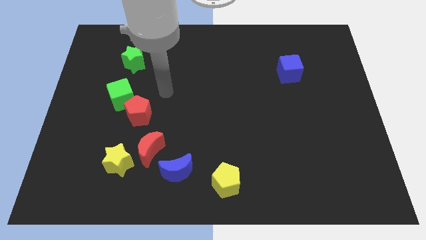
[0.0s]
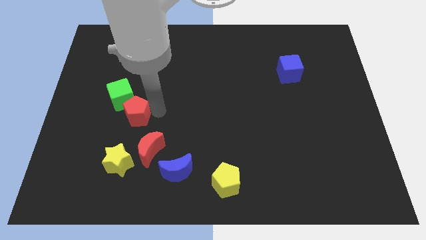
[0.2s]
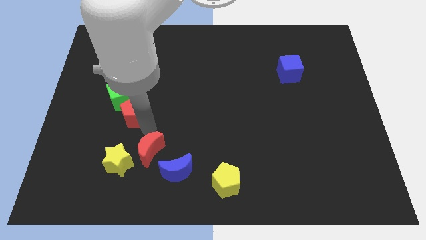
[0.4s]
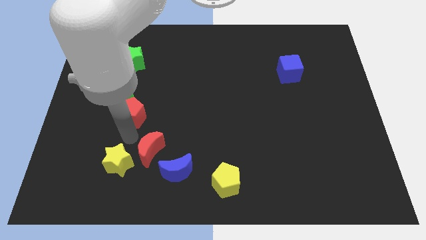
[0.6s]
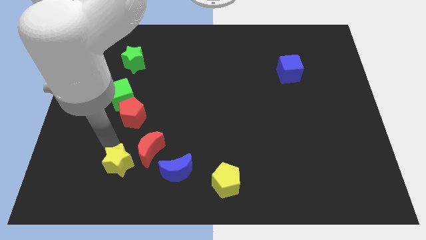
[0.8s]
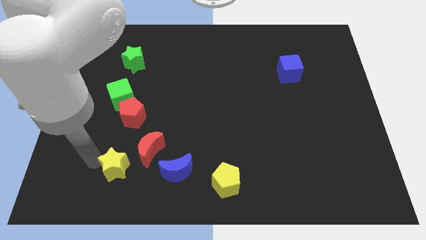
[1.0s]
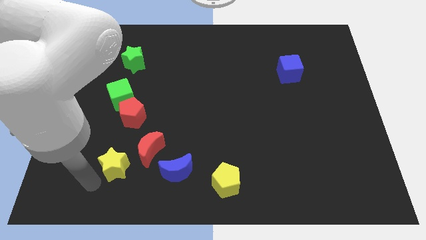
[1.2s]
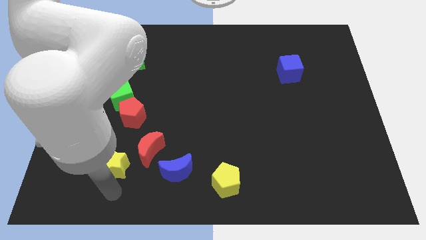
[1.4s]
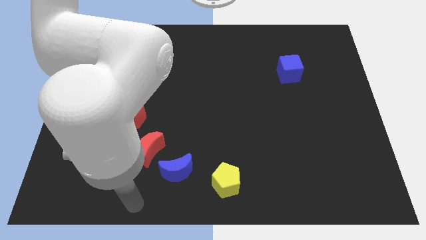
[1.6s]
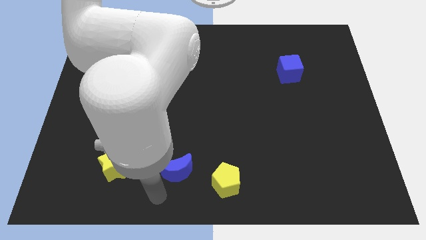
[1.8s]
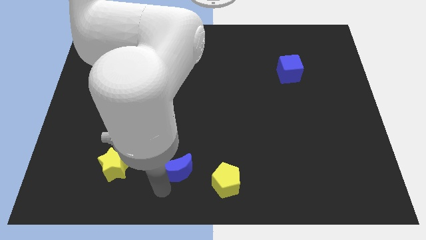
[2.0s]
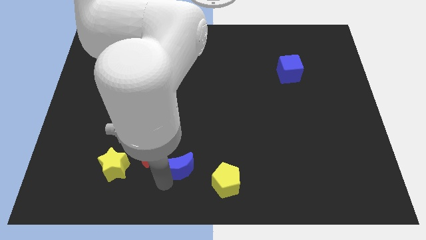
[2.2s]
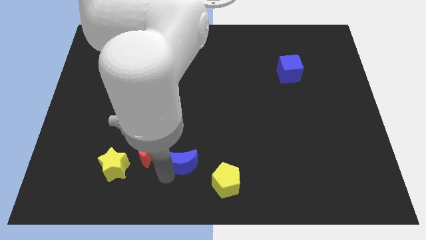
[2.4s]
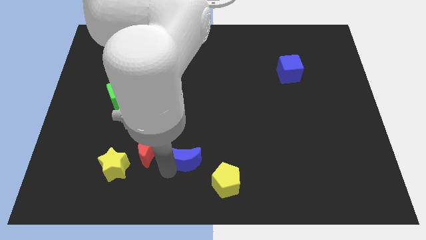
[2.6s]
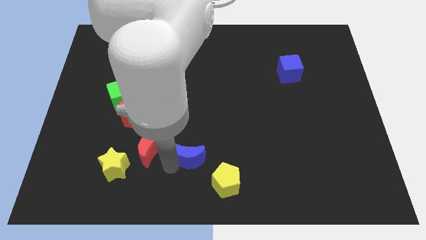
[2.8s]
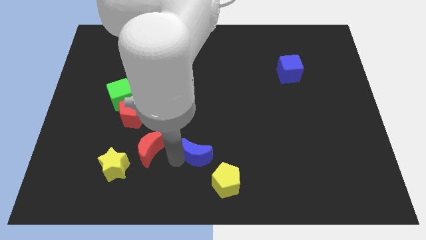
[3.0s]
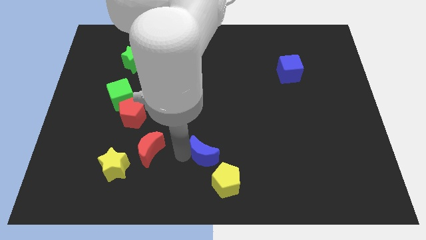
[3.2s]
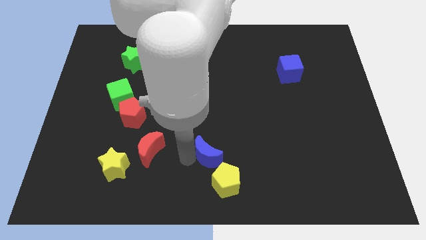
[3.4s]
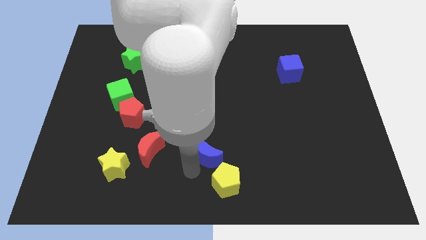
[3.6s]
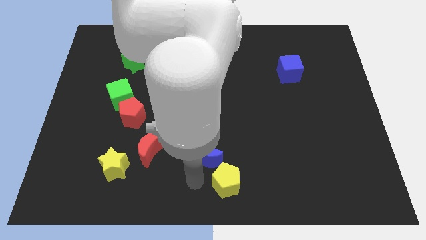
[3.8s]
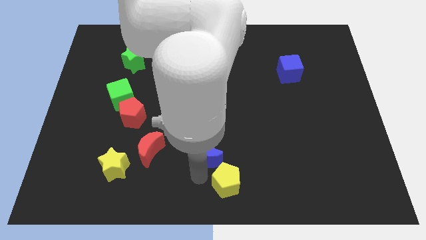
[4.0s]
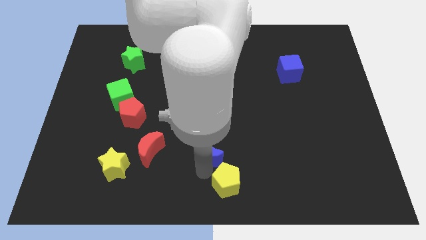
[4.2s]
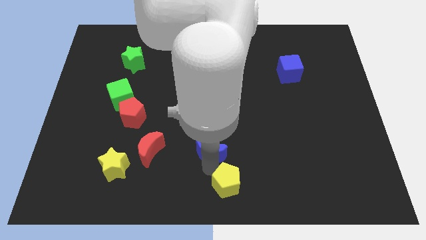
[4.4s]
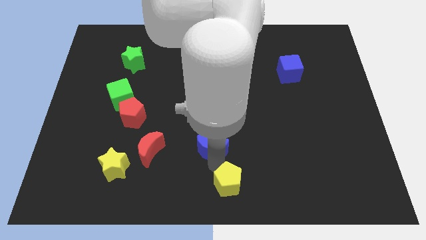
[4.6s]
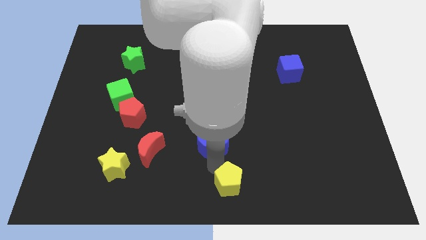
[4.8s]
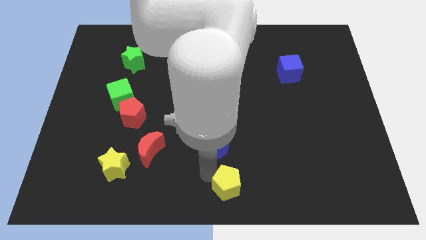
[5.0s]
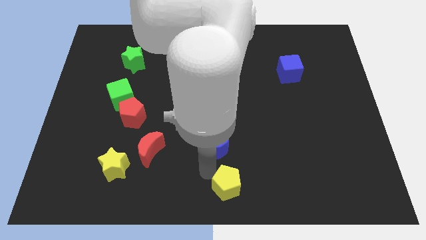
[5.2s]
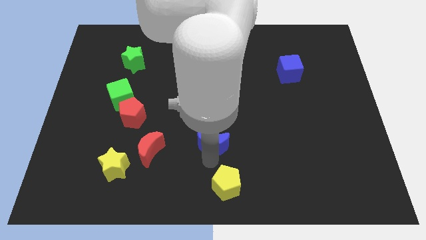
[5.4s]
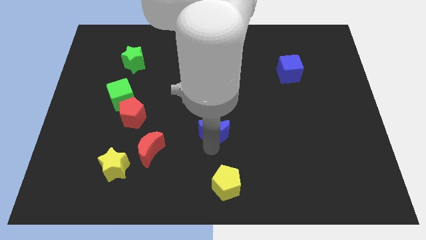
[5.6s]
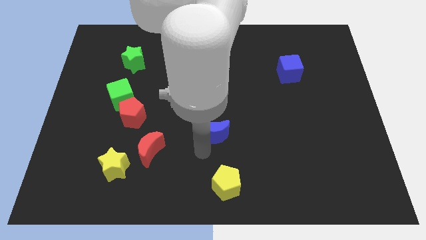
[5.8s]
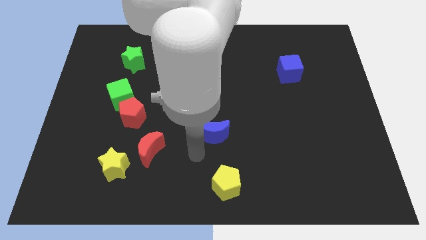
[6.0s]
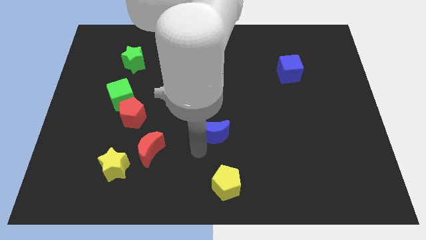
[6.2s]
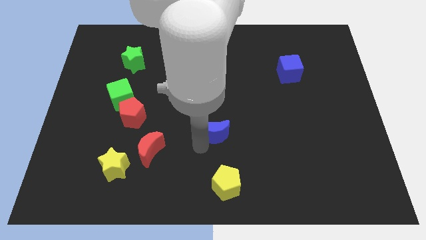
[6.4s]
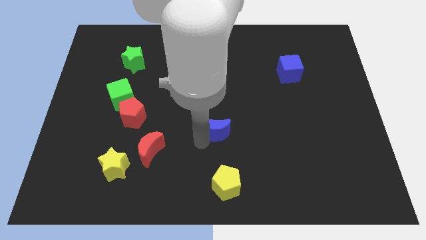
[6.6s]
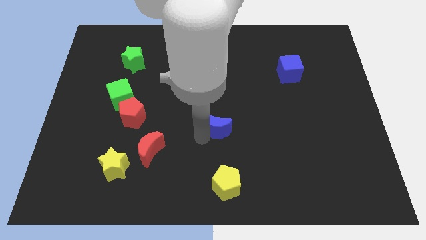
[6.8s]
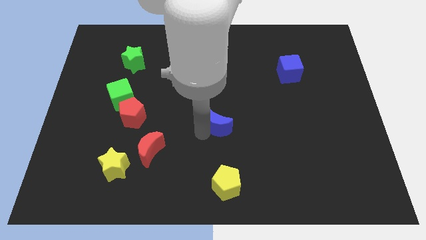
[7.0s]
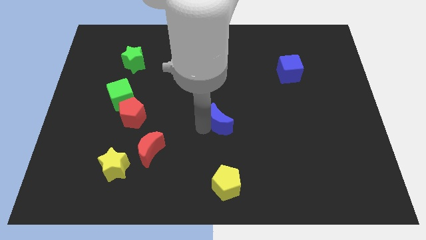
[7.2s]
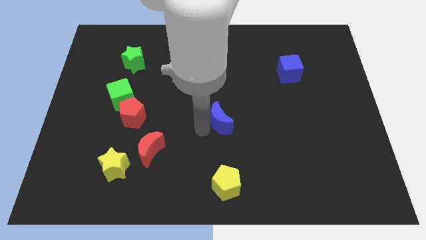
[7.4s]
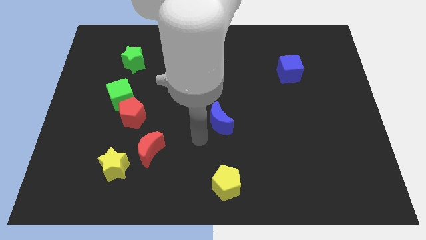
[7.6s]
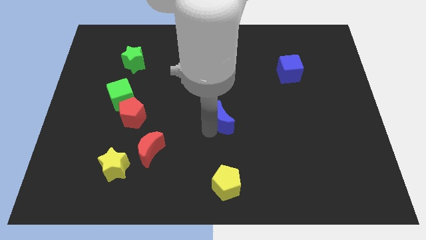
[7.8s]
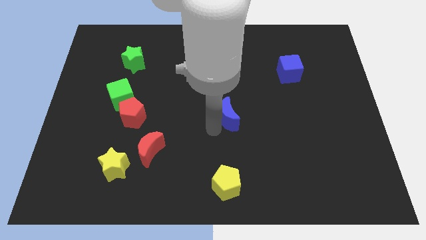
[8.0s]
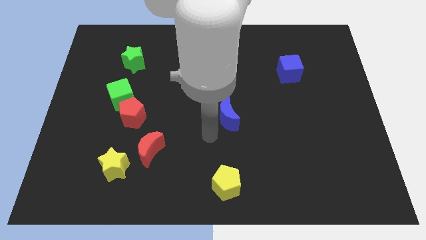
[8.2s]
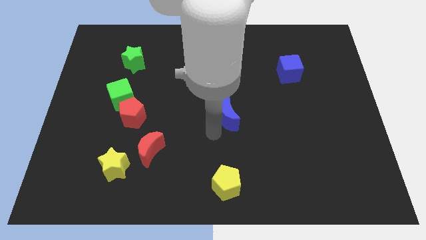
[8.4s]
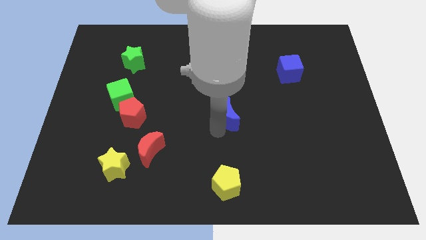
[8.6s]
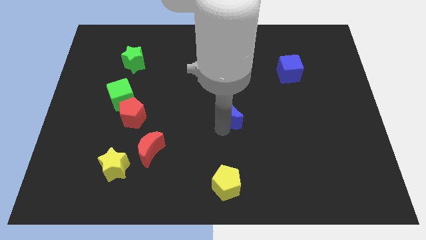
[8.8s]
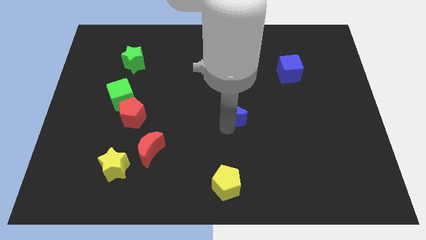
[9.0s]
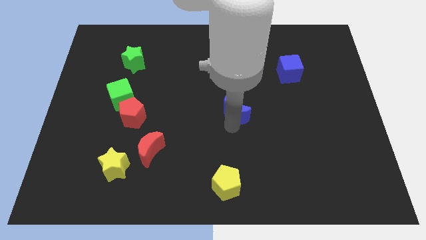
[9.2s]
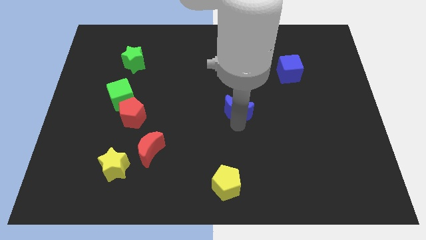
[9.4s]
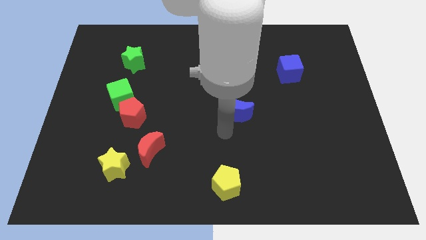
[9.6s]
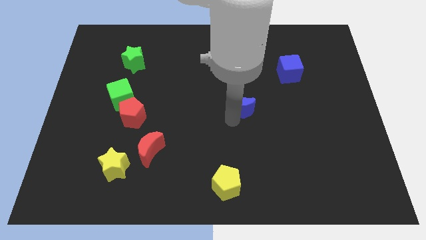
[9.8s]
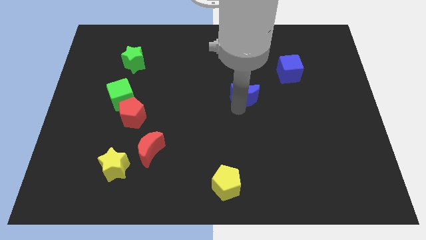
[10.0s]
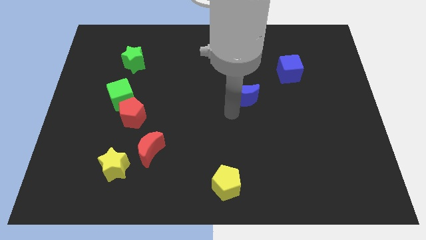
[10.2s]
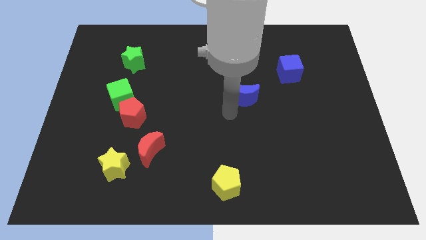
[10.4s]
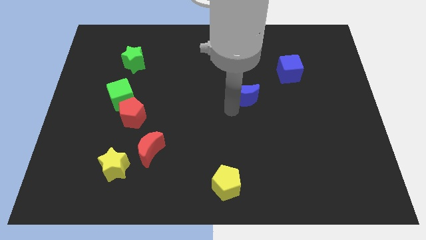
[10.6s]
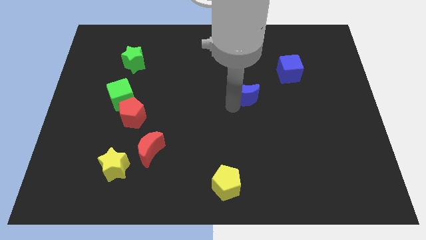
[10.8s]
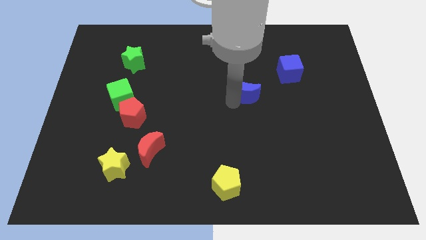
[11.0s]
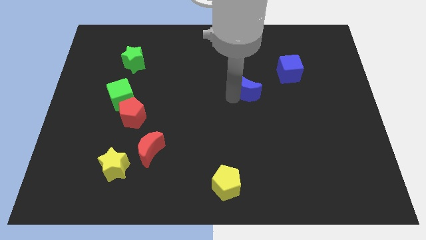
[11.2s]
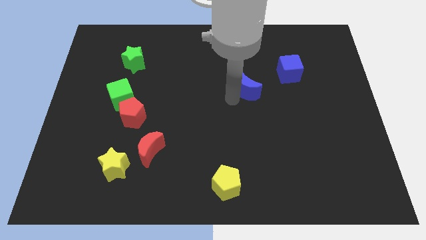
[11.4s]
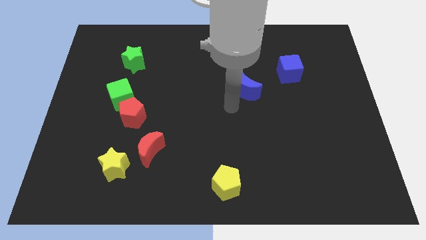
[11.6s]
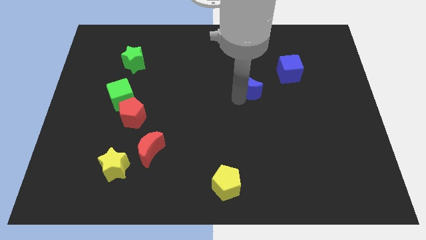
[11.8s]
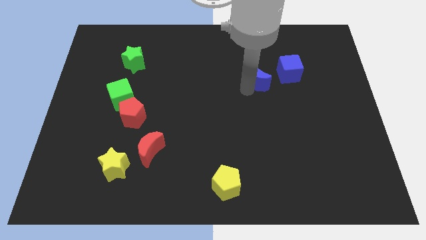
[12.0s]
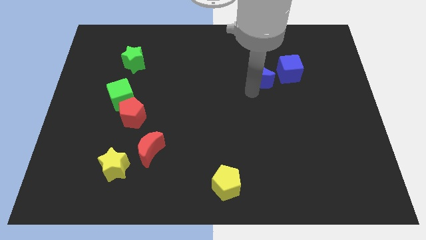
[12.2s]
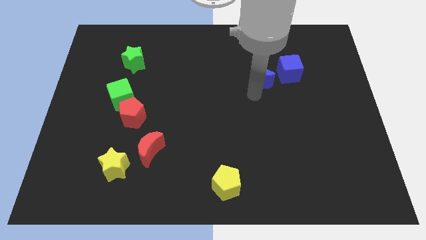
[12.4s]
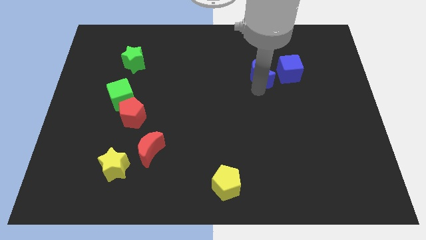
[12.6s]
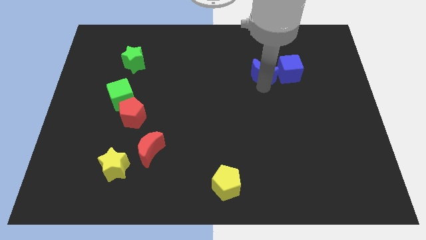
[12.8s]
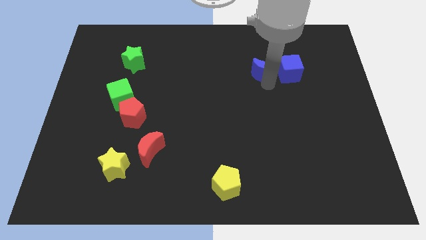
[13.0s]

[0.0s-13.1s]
push the blue moon to the top left side of the blue cube

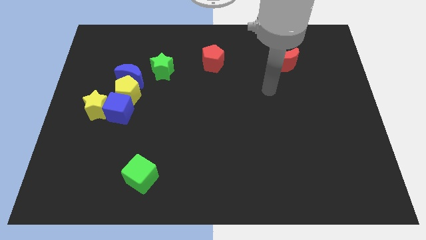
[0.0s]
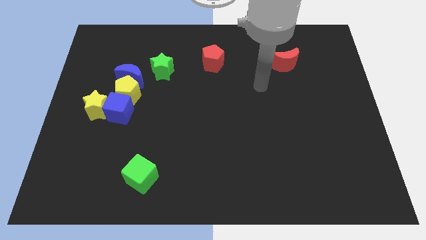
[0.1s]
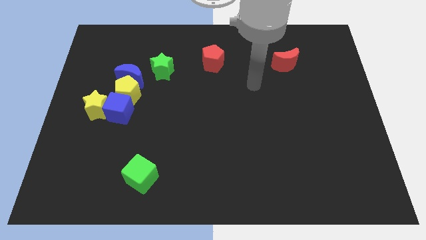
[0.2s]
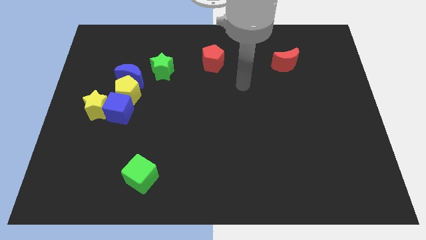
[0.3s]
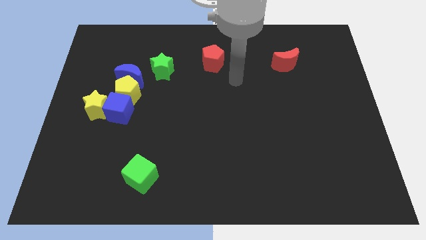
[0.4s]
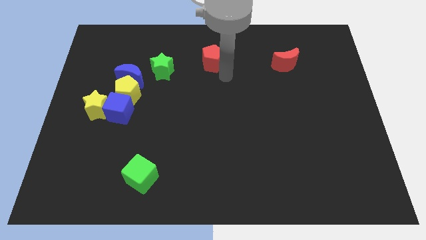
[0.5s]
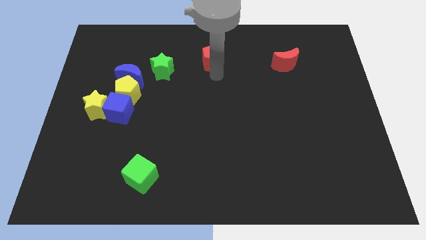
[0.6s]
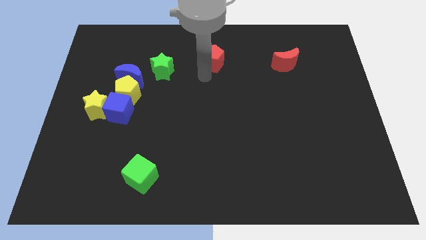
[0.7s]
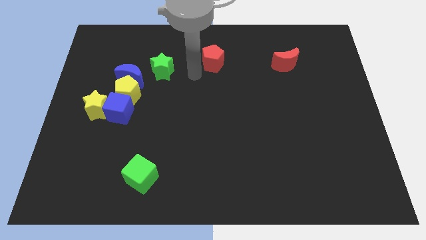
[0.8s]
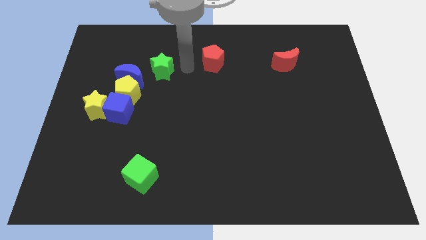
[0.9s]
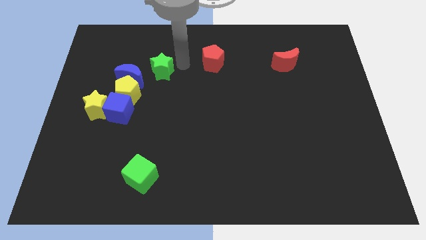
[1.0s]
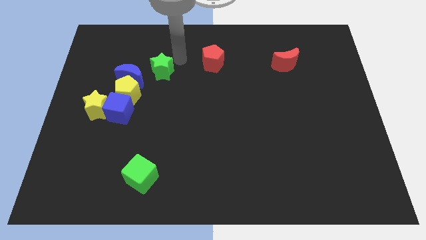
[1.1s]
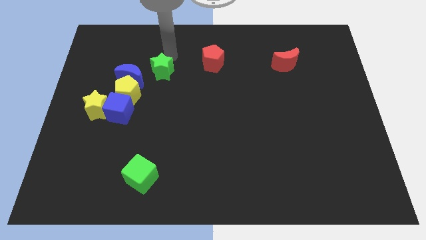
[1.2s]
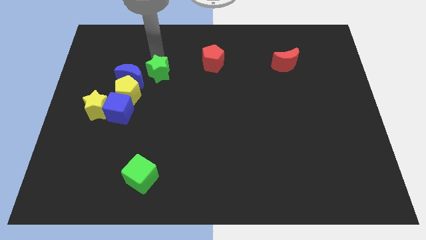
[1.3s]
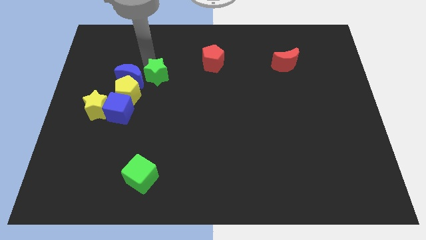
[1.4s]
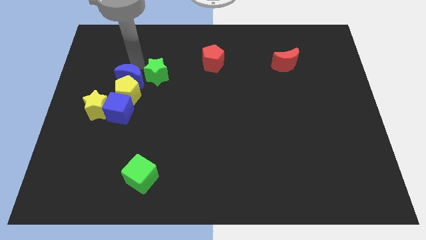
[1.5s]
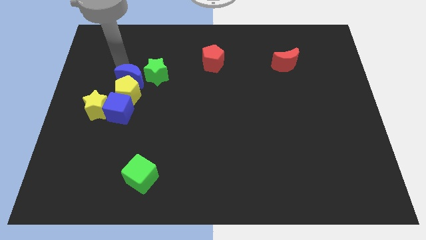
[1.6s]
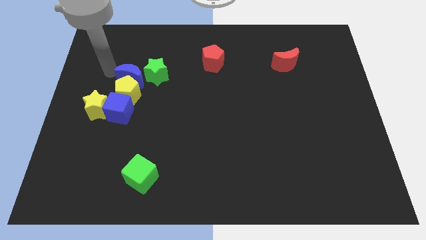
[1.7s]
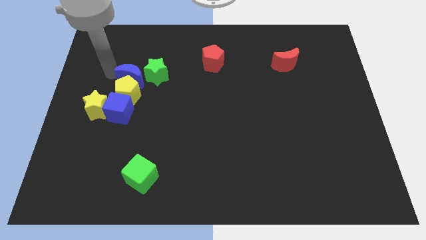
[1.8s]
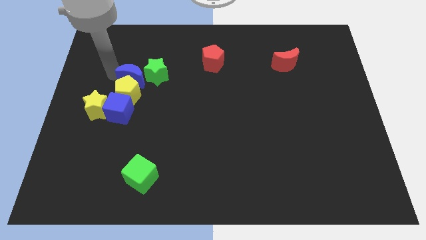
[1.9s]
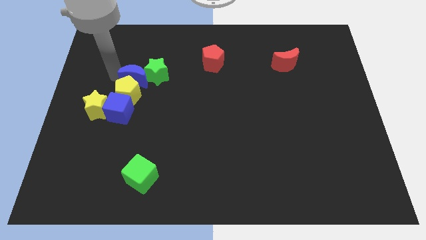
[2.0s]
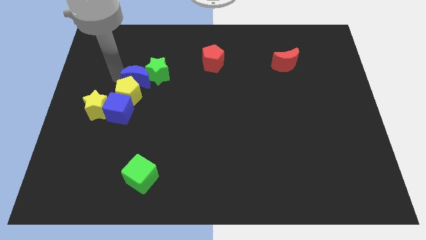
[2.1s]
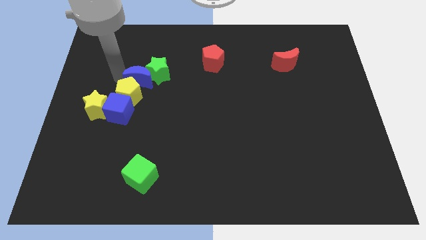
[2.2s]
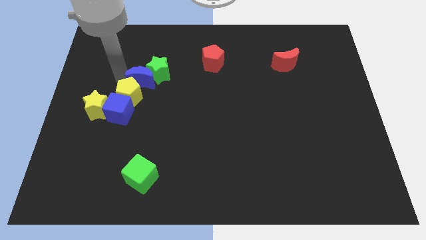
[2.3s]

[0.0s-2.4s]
put the blue moon to the bottom of the green star
